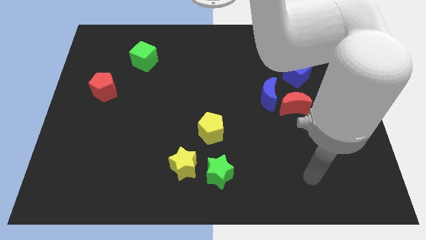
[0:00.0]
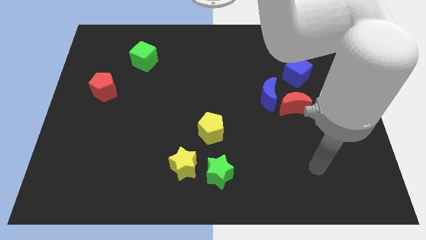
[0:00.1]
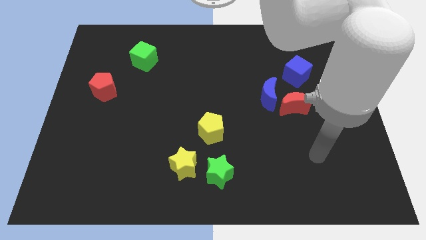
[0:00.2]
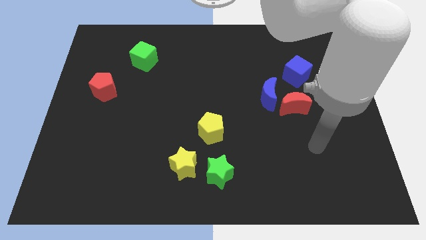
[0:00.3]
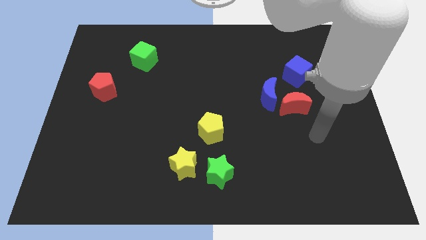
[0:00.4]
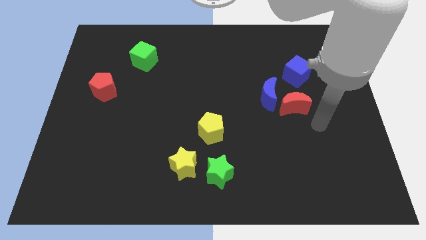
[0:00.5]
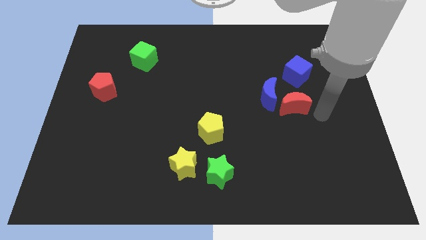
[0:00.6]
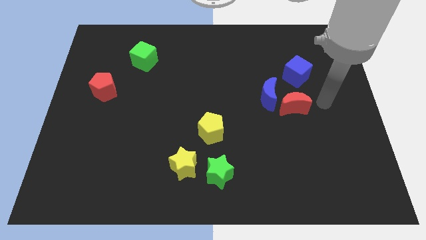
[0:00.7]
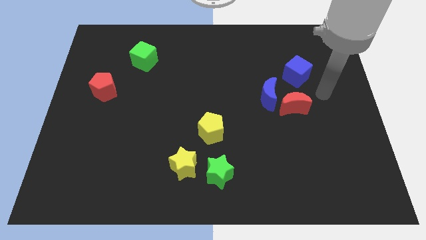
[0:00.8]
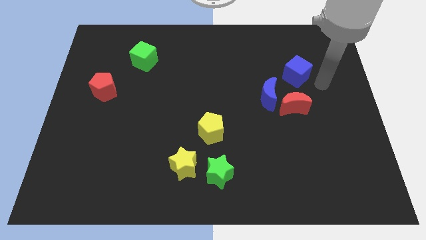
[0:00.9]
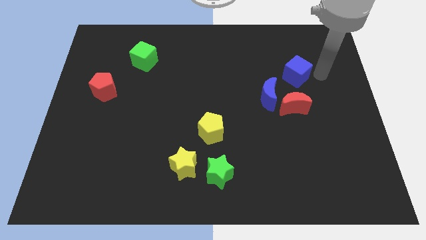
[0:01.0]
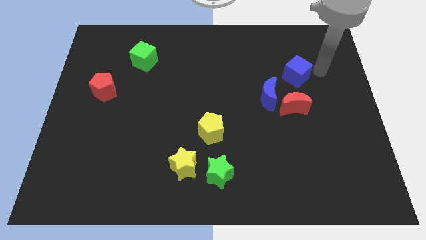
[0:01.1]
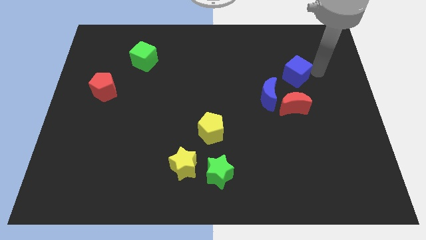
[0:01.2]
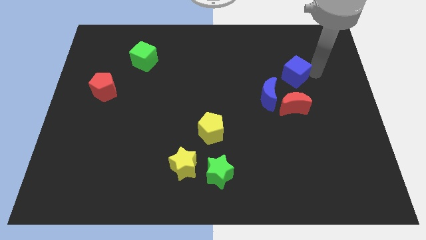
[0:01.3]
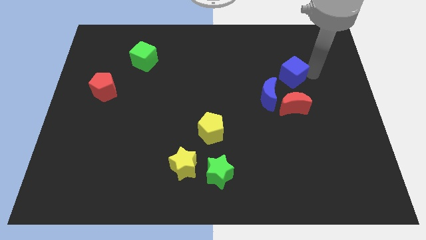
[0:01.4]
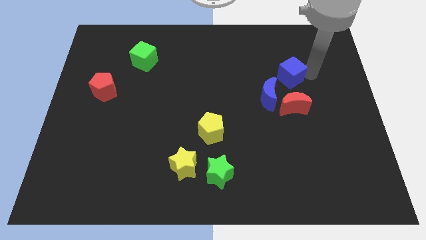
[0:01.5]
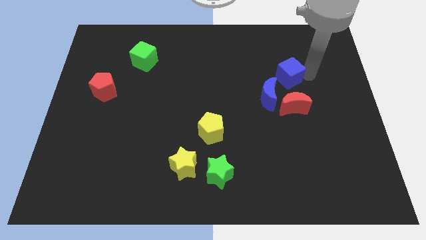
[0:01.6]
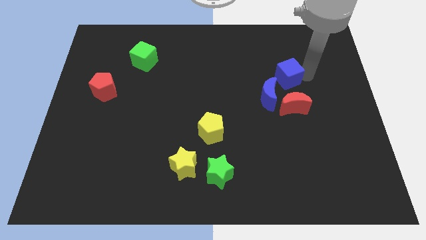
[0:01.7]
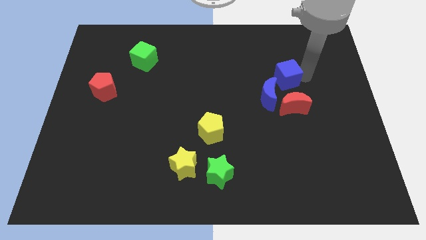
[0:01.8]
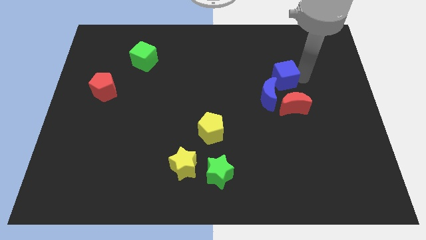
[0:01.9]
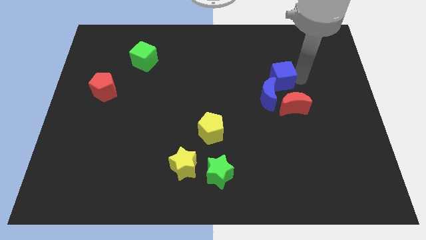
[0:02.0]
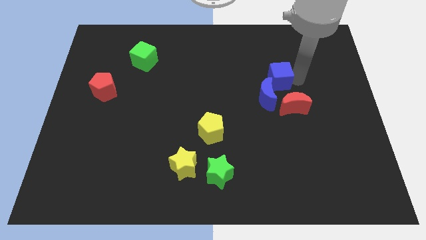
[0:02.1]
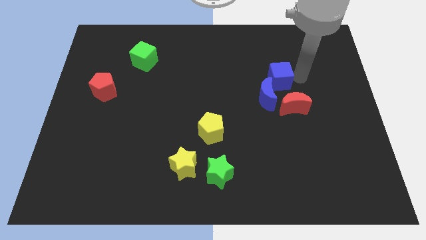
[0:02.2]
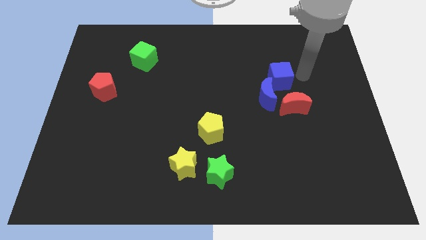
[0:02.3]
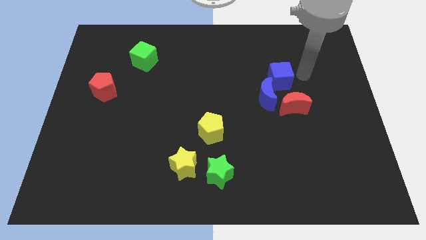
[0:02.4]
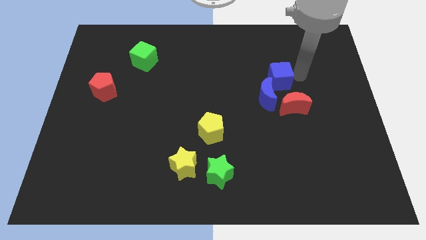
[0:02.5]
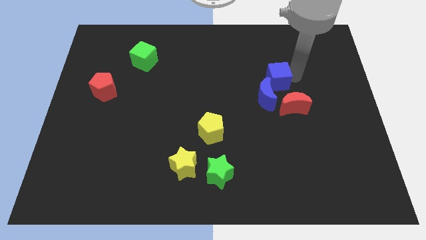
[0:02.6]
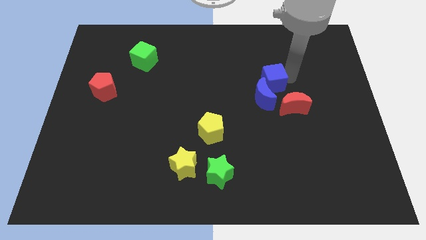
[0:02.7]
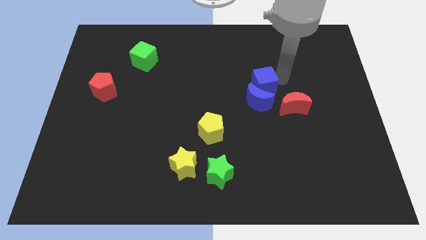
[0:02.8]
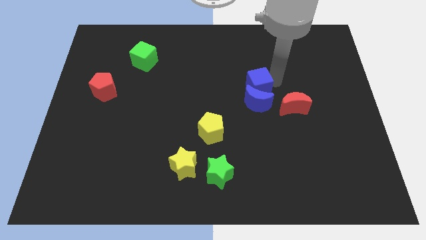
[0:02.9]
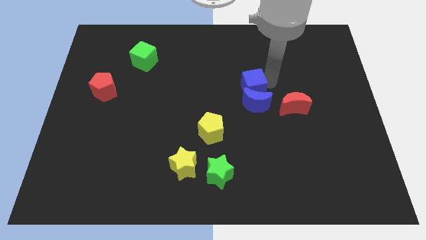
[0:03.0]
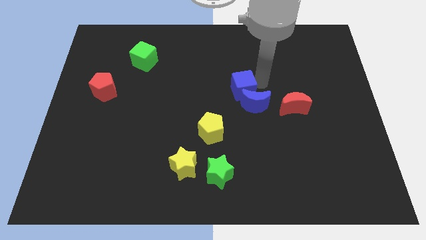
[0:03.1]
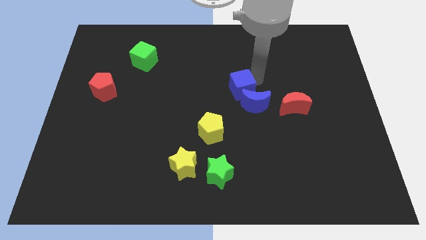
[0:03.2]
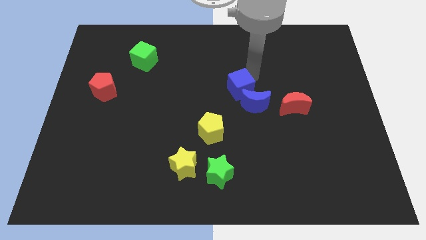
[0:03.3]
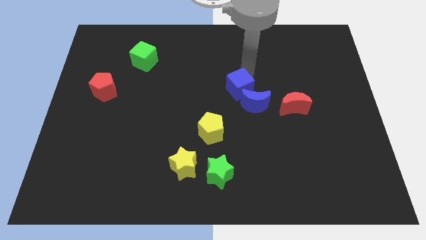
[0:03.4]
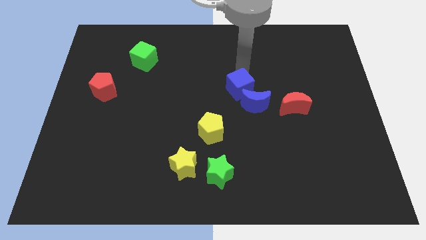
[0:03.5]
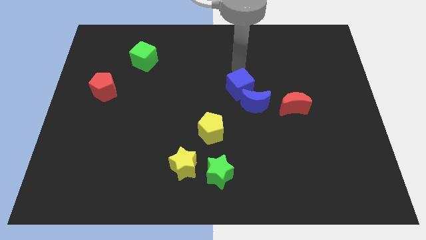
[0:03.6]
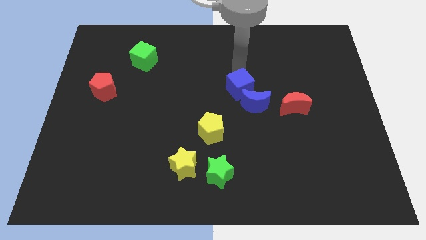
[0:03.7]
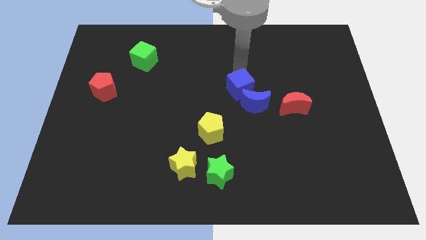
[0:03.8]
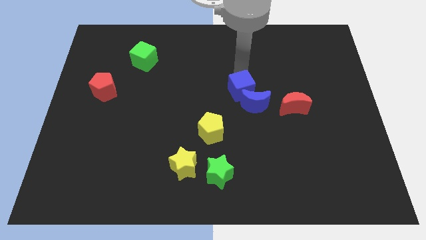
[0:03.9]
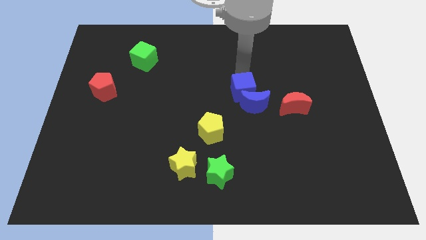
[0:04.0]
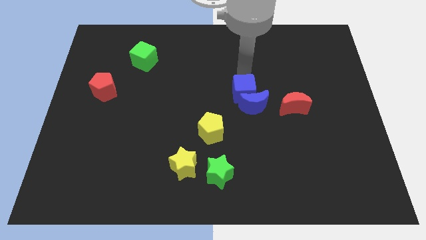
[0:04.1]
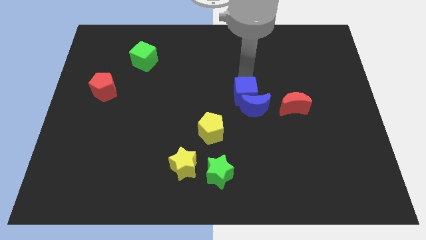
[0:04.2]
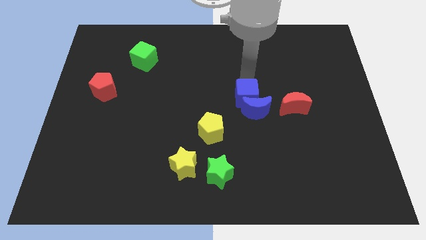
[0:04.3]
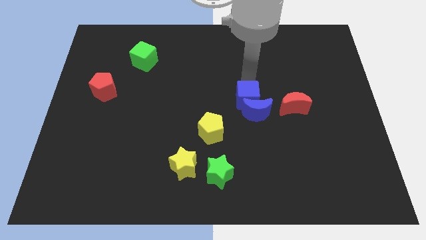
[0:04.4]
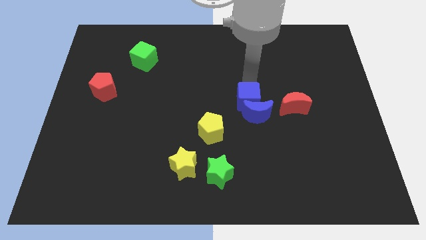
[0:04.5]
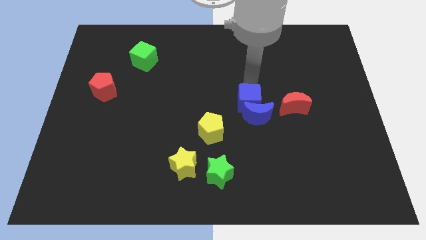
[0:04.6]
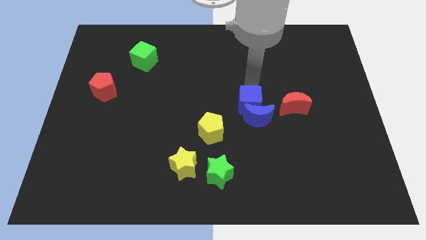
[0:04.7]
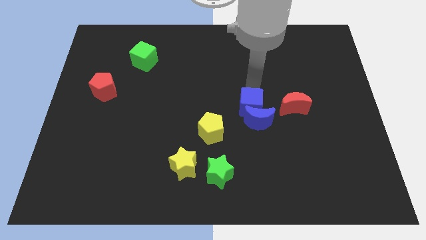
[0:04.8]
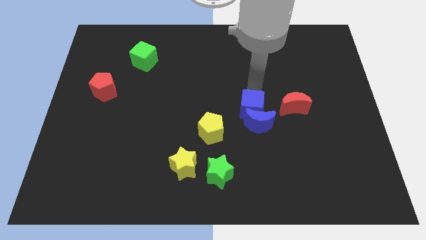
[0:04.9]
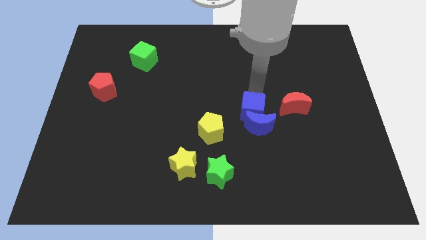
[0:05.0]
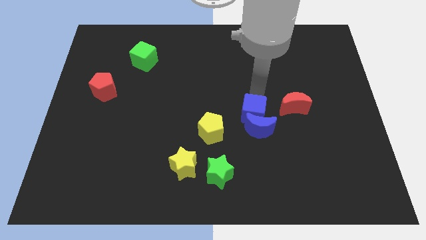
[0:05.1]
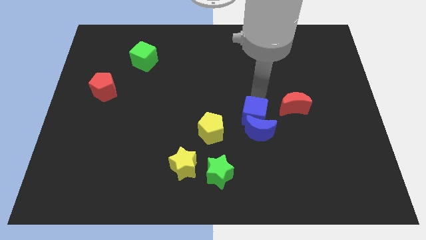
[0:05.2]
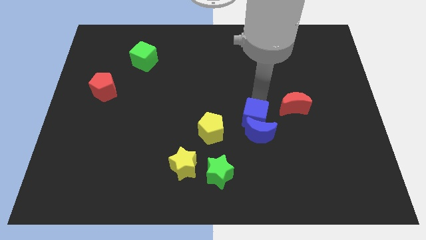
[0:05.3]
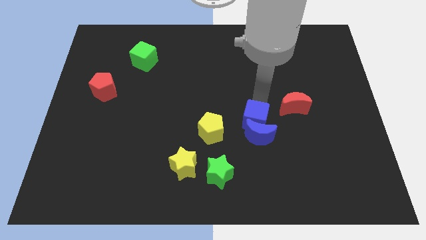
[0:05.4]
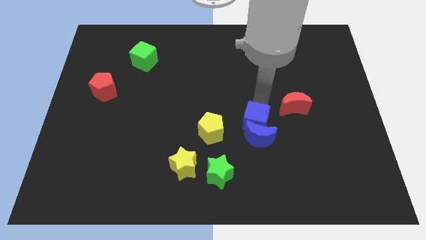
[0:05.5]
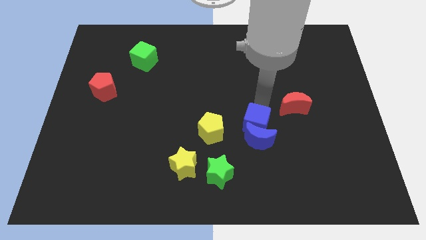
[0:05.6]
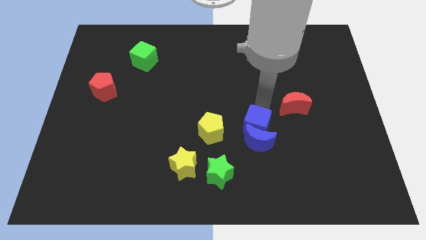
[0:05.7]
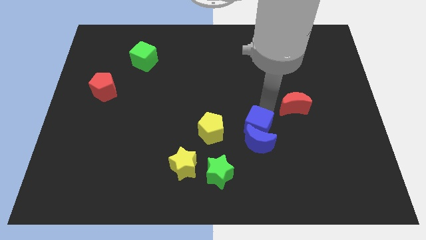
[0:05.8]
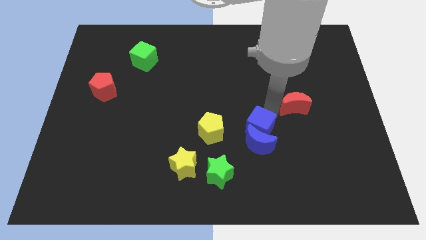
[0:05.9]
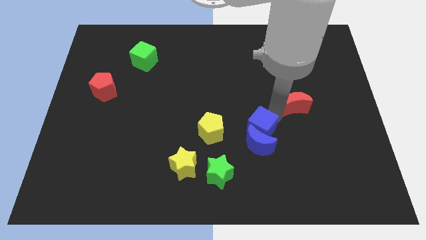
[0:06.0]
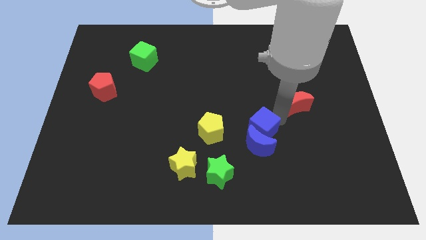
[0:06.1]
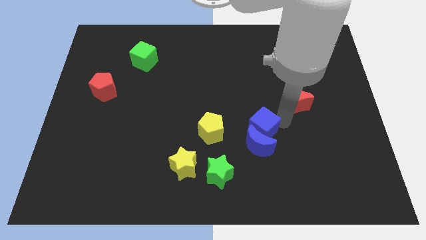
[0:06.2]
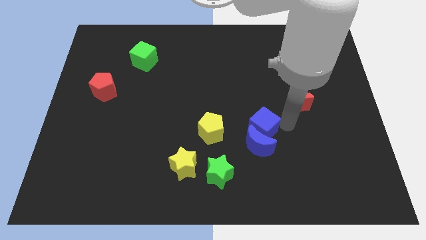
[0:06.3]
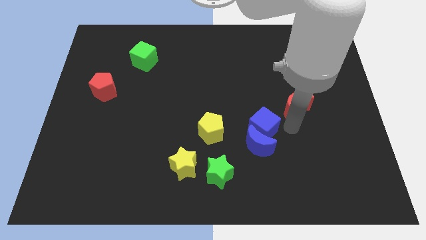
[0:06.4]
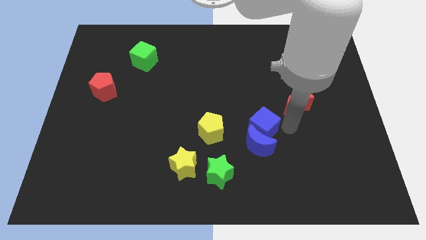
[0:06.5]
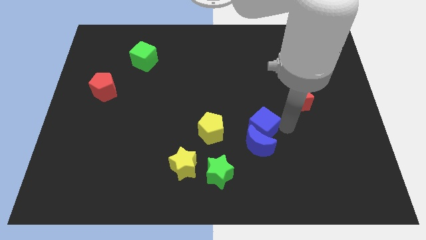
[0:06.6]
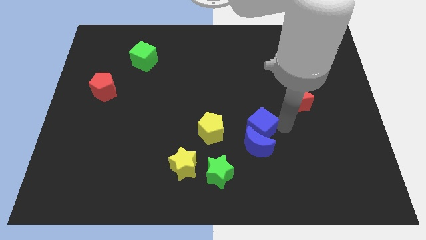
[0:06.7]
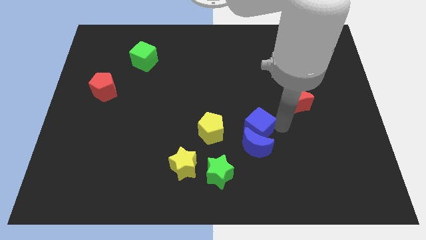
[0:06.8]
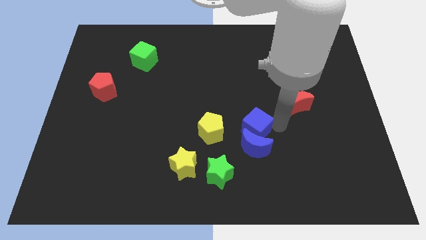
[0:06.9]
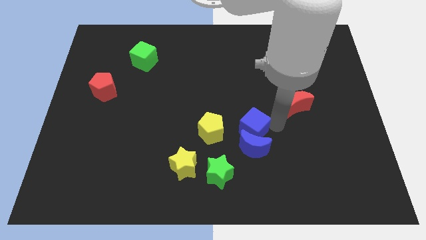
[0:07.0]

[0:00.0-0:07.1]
push the blue cube downwards and then to the left

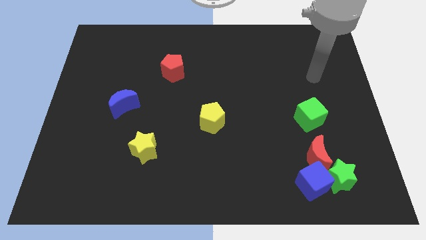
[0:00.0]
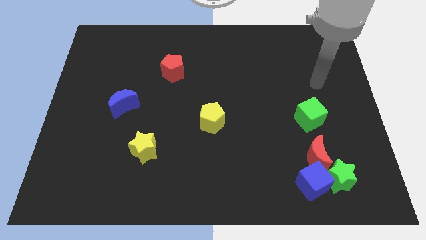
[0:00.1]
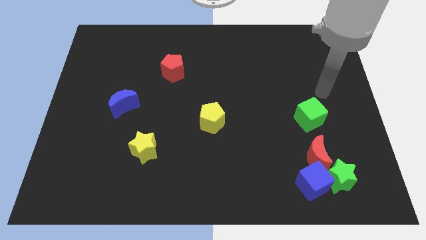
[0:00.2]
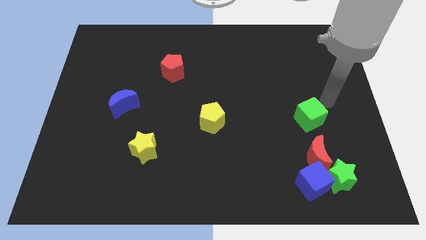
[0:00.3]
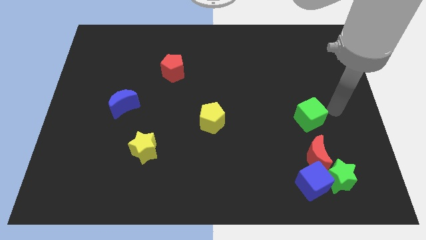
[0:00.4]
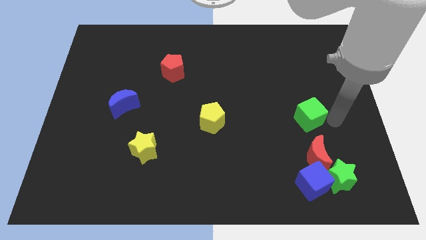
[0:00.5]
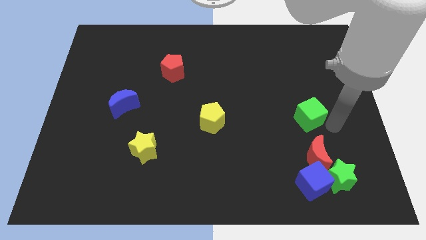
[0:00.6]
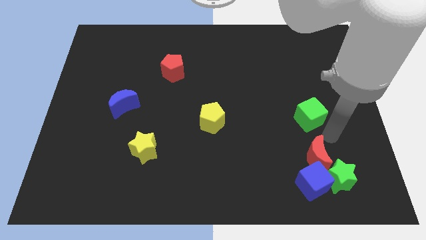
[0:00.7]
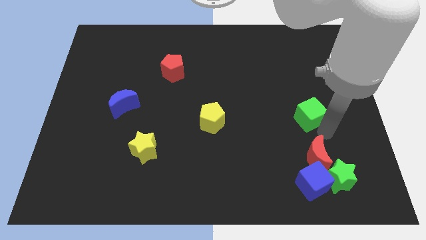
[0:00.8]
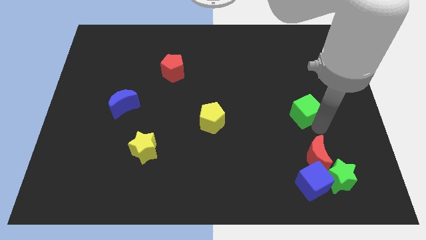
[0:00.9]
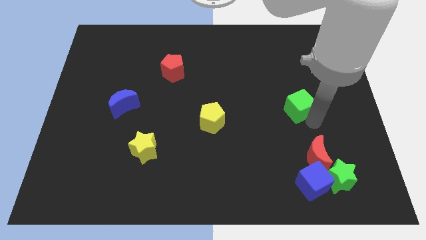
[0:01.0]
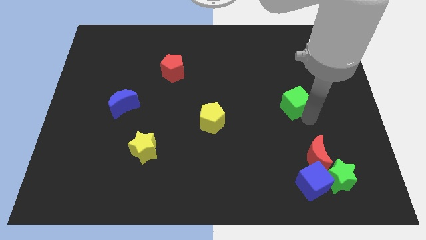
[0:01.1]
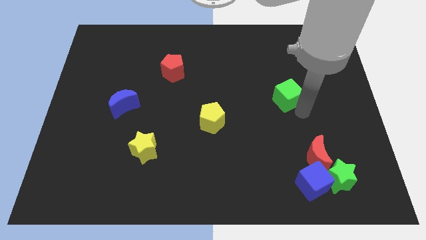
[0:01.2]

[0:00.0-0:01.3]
slightly slide the green cube up and left
